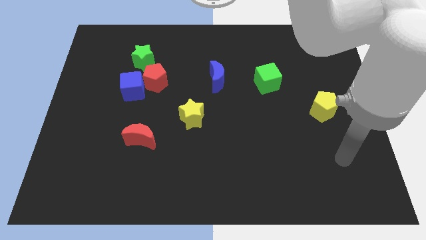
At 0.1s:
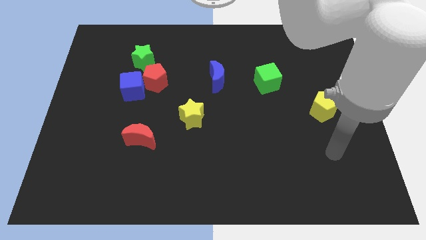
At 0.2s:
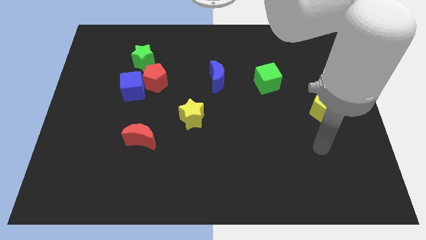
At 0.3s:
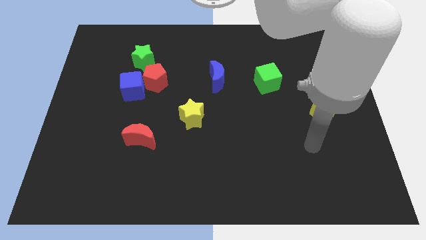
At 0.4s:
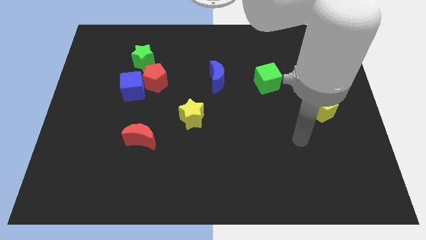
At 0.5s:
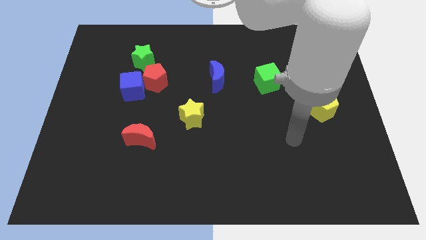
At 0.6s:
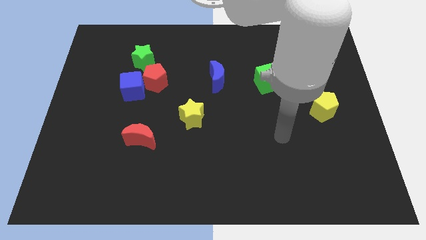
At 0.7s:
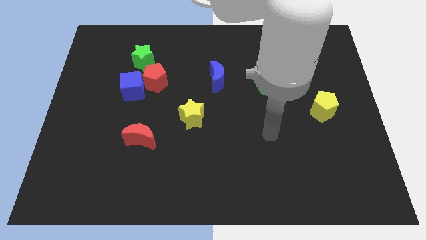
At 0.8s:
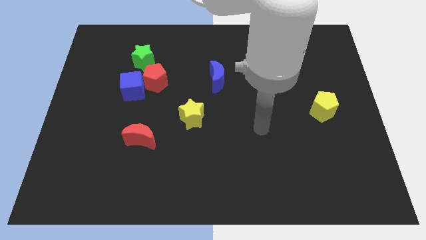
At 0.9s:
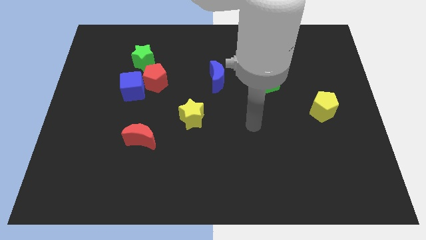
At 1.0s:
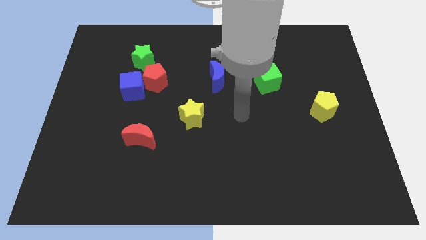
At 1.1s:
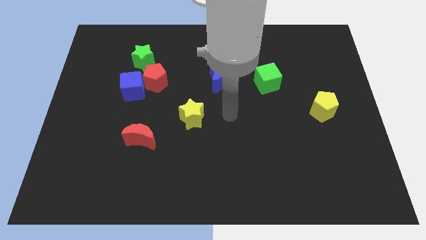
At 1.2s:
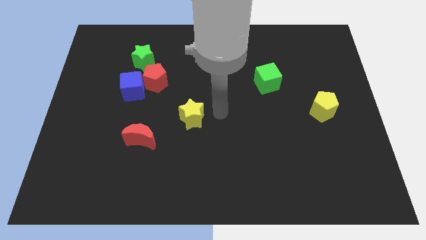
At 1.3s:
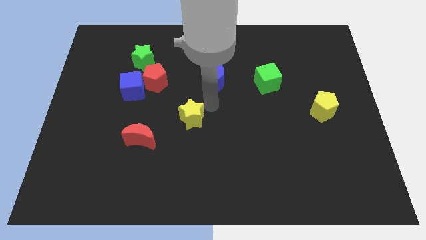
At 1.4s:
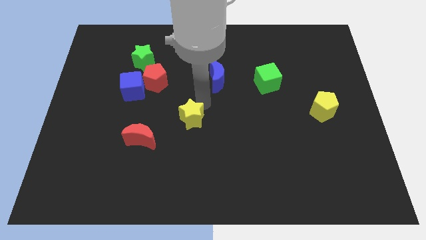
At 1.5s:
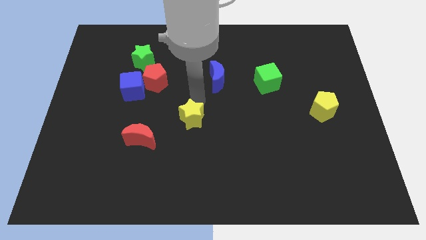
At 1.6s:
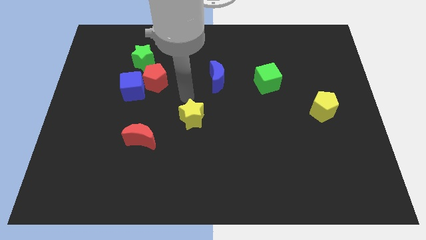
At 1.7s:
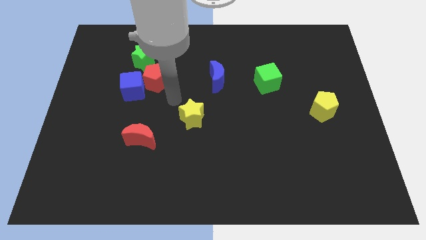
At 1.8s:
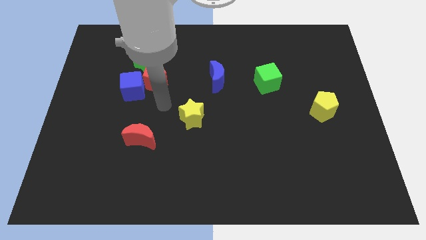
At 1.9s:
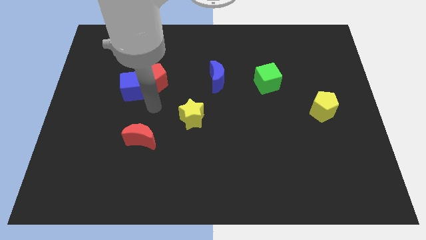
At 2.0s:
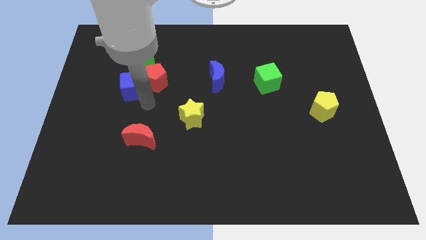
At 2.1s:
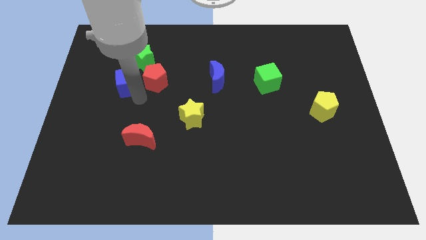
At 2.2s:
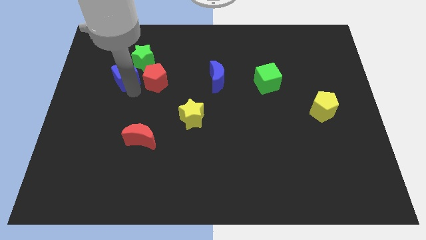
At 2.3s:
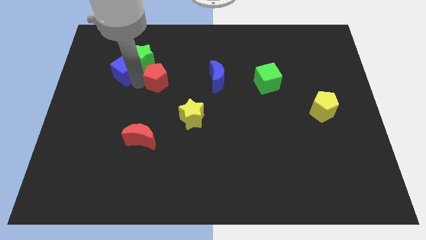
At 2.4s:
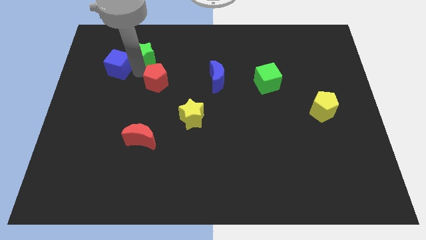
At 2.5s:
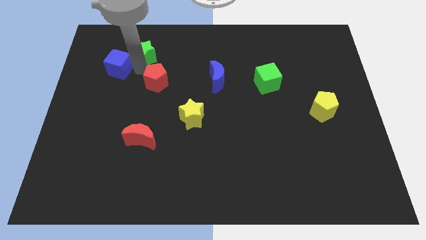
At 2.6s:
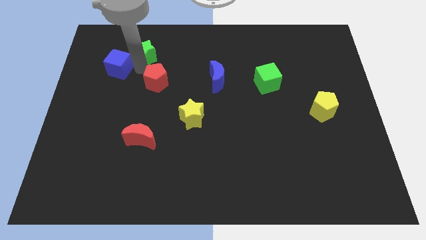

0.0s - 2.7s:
pull the red pentagon apart from the blue cube and green star

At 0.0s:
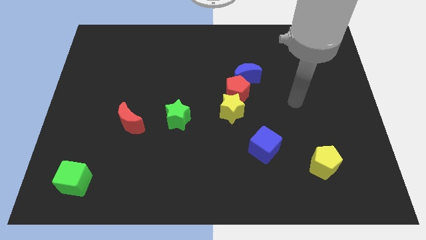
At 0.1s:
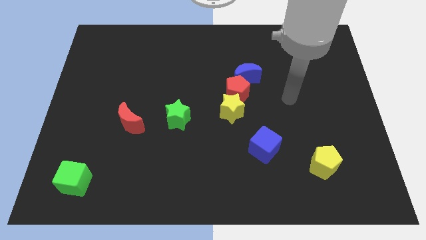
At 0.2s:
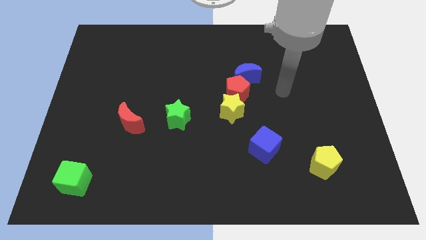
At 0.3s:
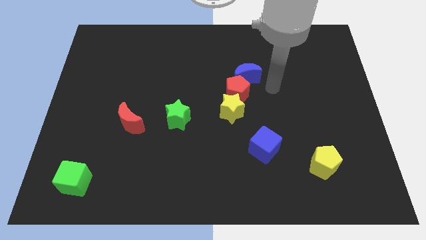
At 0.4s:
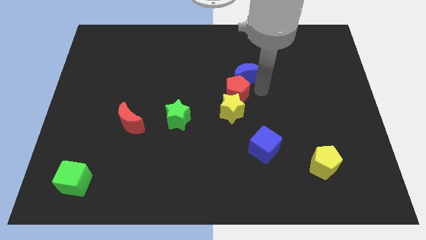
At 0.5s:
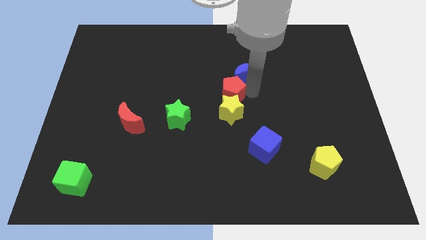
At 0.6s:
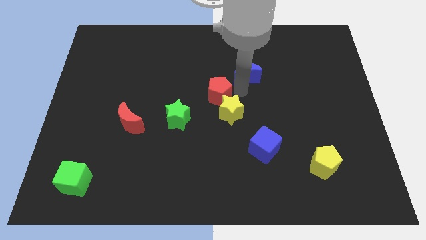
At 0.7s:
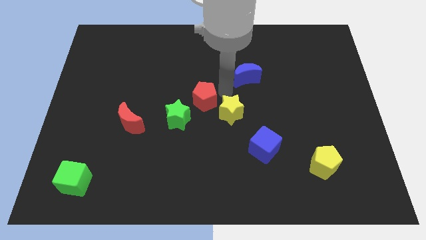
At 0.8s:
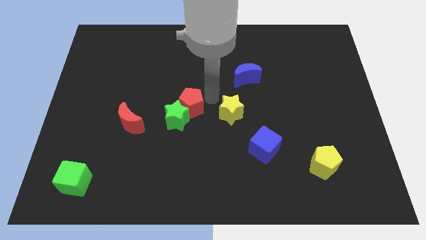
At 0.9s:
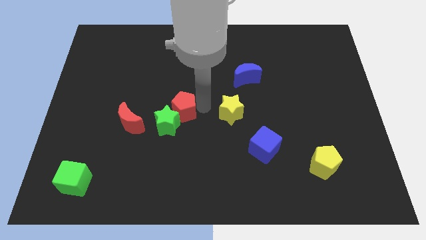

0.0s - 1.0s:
pull the yellow star apart from the red pentagon

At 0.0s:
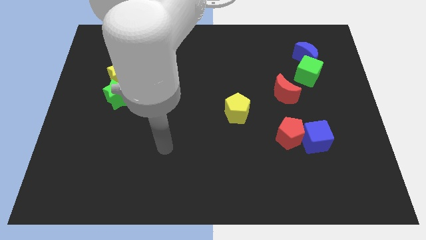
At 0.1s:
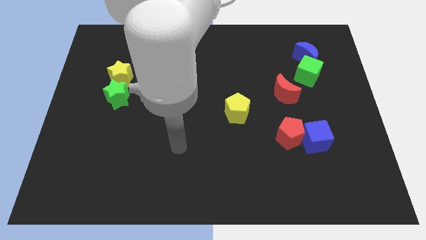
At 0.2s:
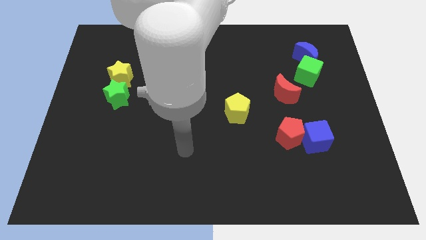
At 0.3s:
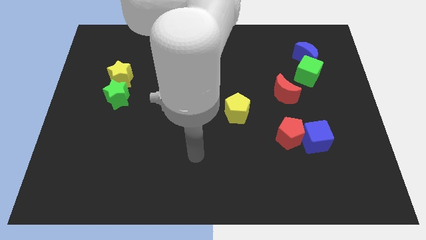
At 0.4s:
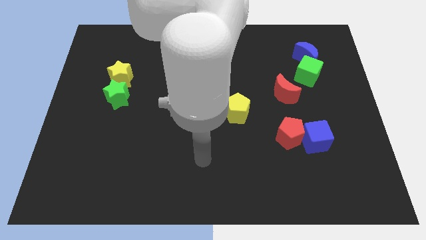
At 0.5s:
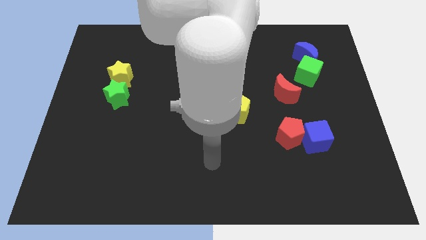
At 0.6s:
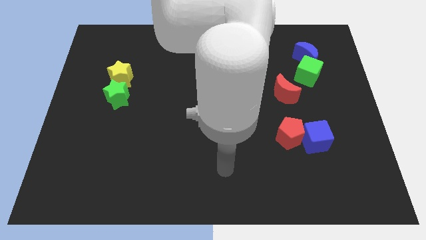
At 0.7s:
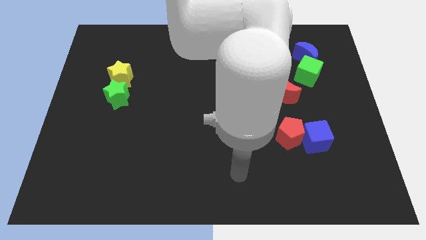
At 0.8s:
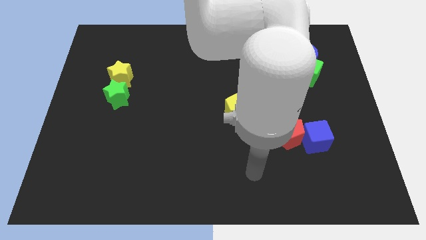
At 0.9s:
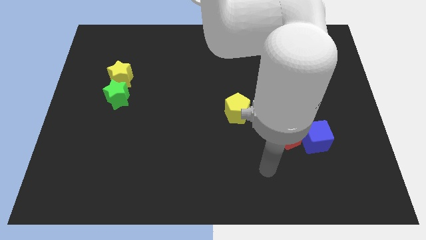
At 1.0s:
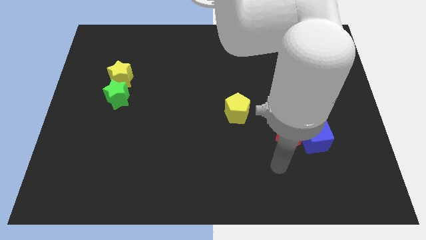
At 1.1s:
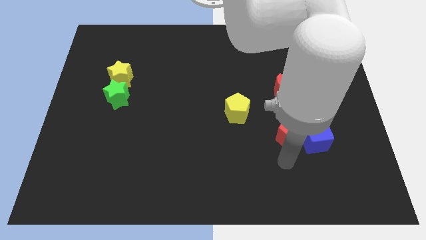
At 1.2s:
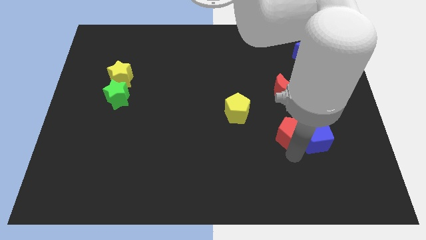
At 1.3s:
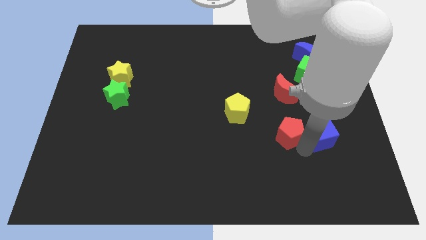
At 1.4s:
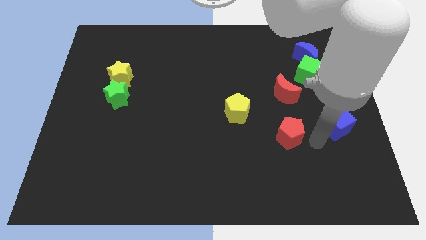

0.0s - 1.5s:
move the red pentagon away from the blue cube

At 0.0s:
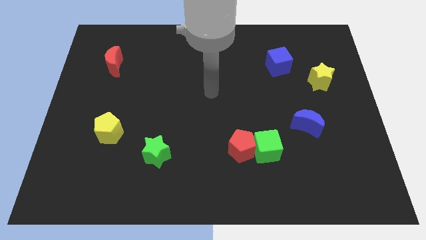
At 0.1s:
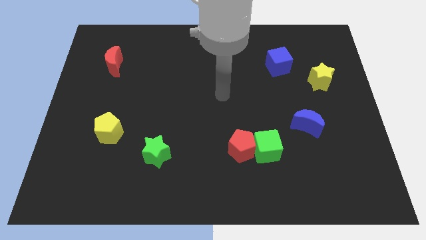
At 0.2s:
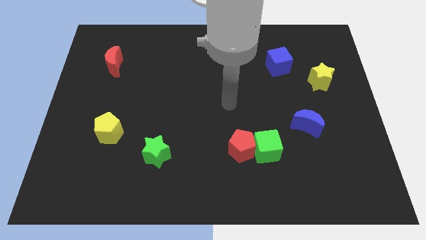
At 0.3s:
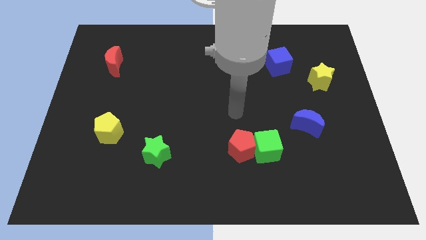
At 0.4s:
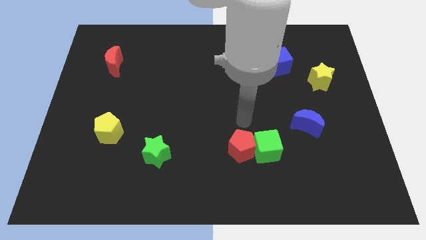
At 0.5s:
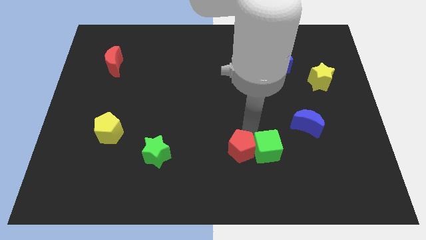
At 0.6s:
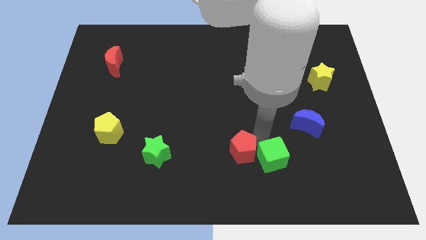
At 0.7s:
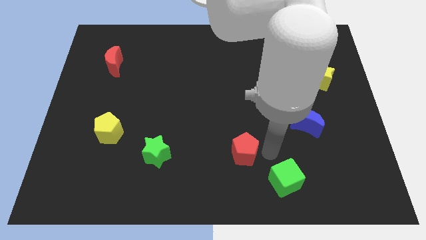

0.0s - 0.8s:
pull the red pentagon apart from the green cube

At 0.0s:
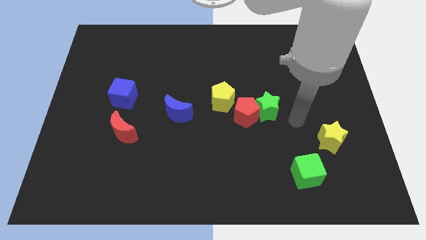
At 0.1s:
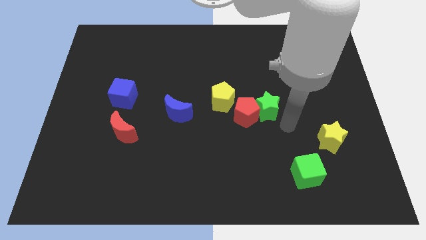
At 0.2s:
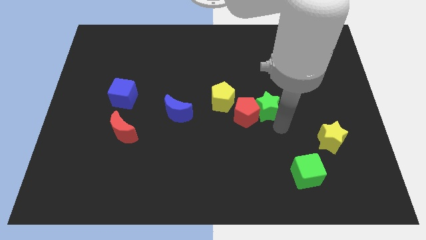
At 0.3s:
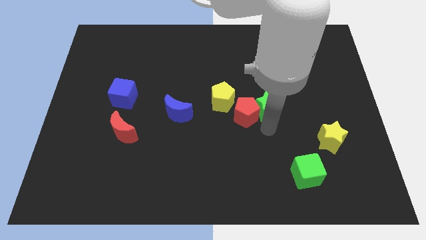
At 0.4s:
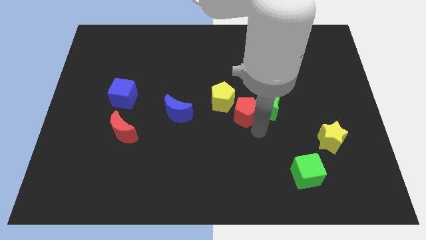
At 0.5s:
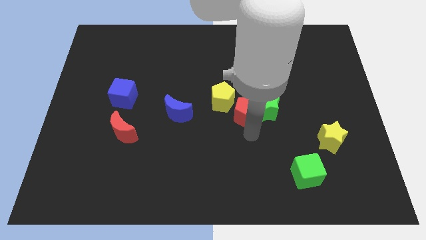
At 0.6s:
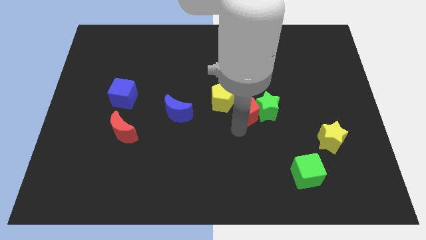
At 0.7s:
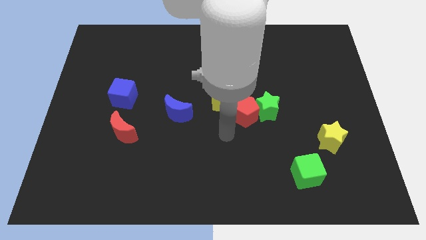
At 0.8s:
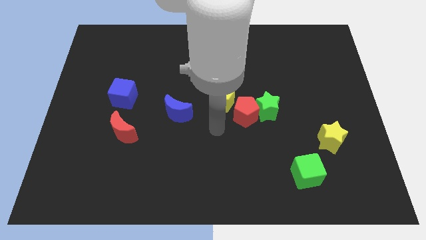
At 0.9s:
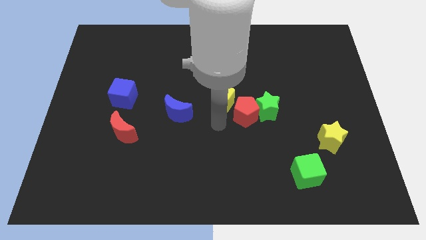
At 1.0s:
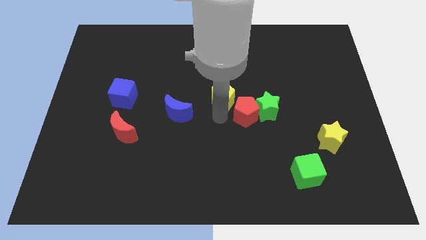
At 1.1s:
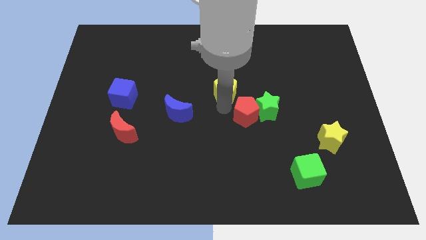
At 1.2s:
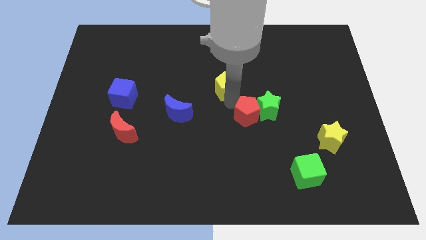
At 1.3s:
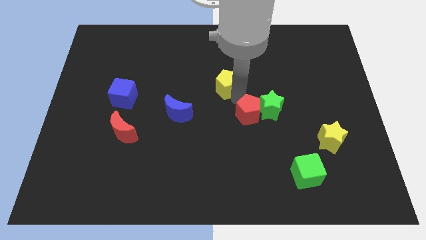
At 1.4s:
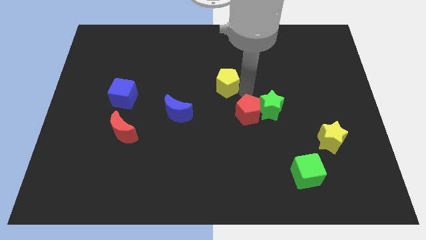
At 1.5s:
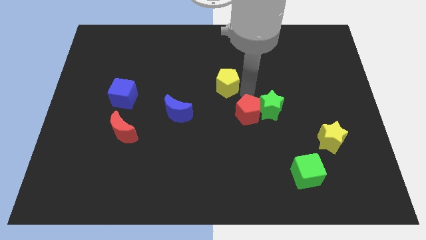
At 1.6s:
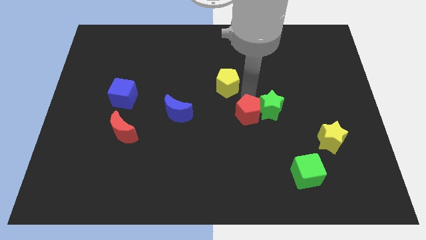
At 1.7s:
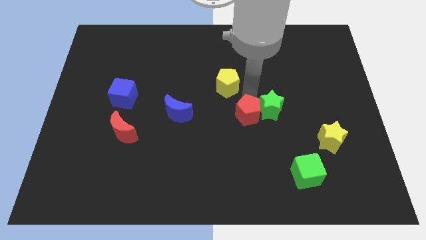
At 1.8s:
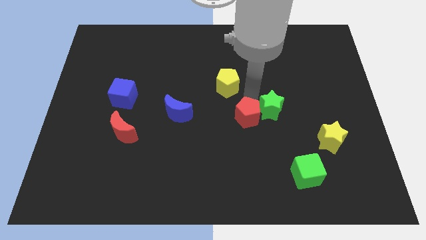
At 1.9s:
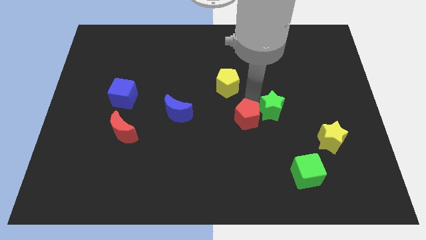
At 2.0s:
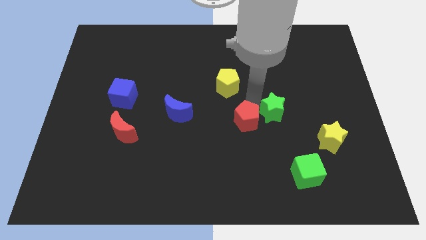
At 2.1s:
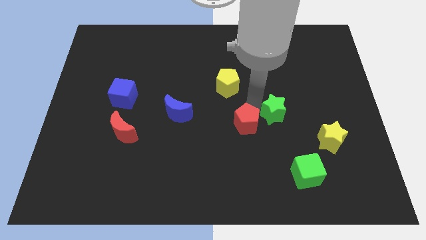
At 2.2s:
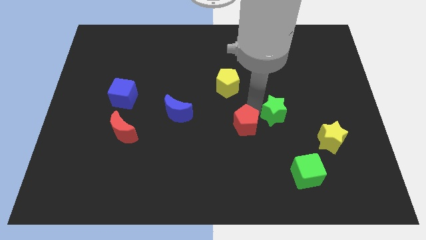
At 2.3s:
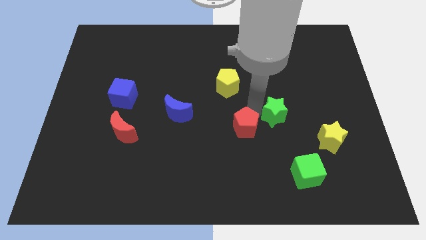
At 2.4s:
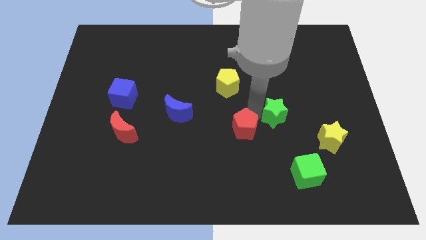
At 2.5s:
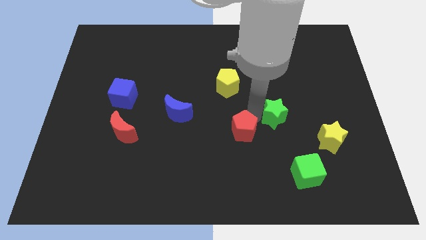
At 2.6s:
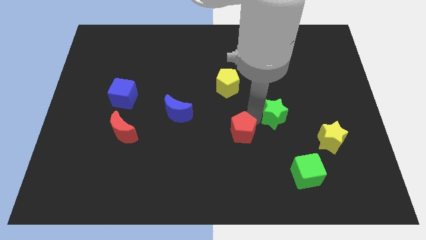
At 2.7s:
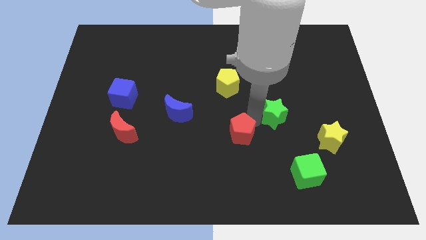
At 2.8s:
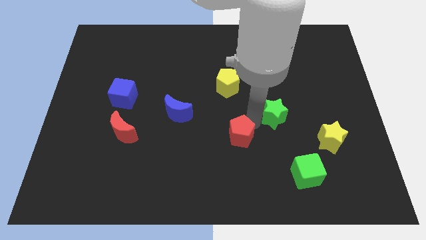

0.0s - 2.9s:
separate the red pentagon from the green star and yellow pentagon

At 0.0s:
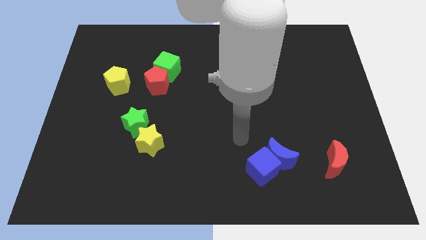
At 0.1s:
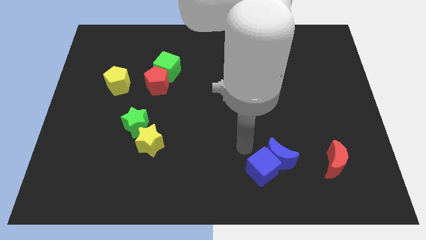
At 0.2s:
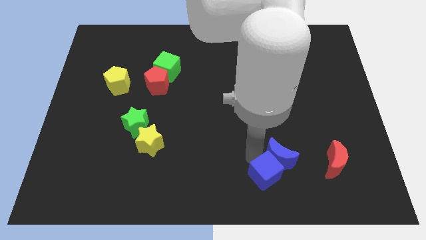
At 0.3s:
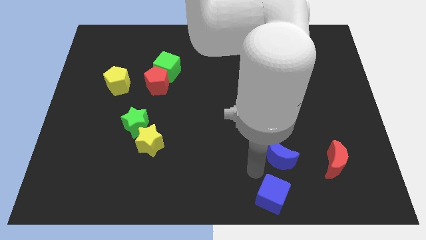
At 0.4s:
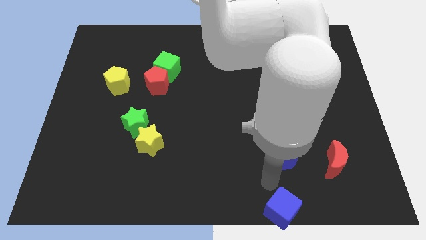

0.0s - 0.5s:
move the blue moon away from the blue cube
